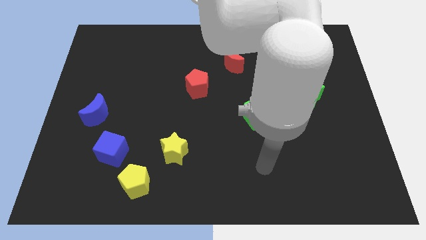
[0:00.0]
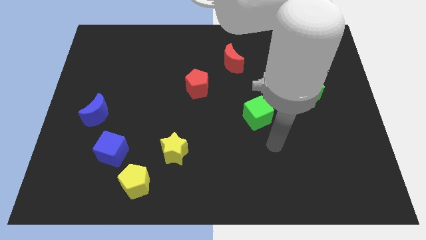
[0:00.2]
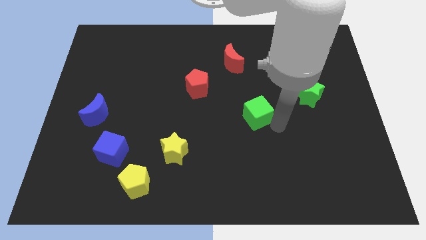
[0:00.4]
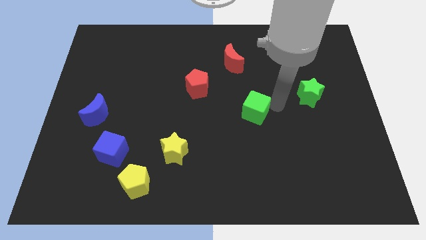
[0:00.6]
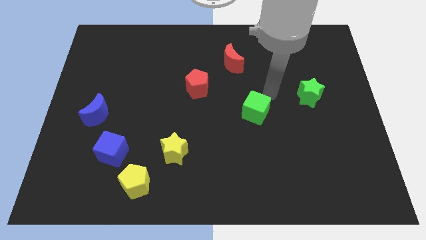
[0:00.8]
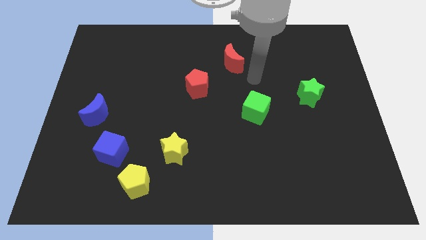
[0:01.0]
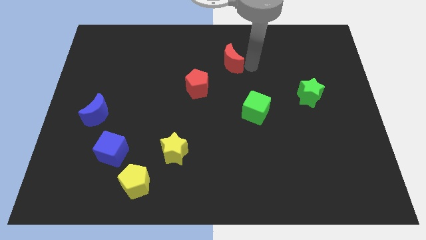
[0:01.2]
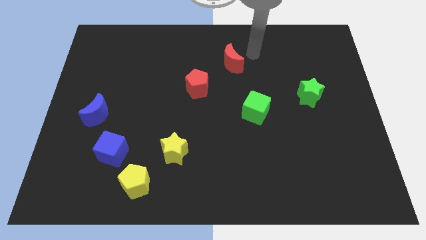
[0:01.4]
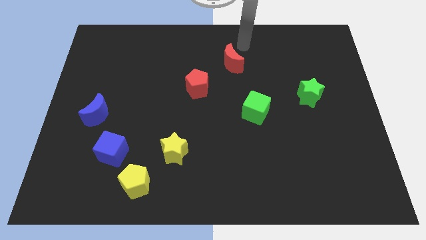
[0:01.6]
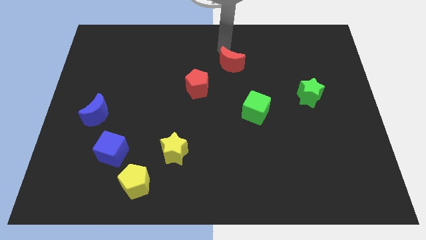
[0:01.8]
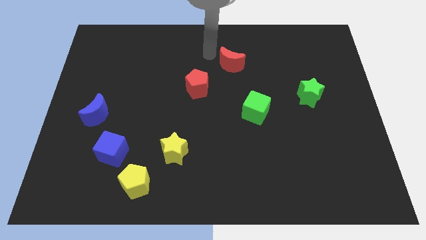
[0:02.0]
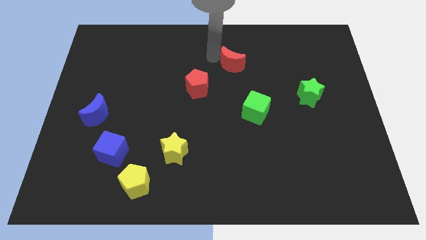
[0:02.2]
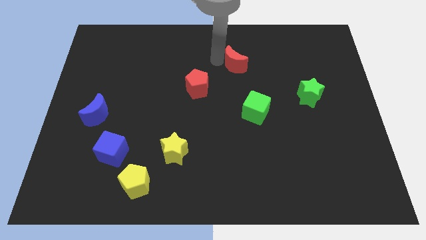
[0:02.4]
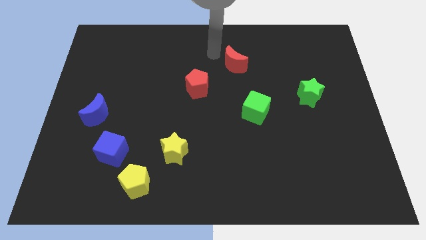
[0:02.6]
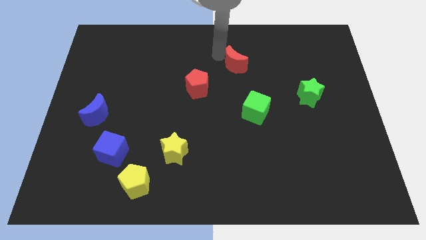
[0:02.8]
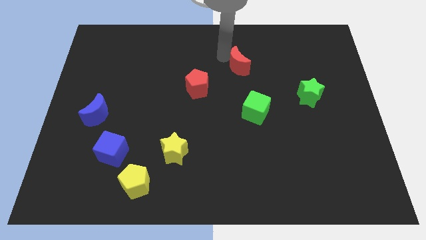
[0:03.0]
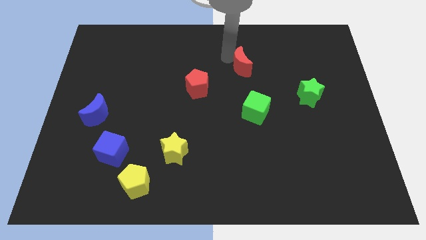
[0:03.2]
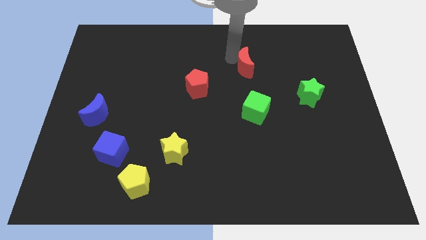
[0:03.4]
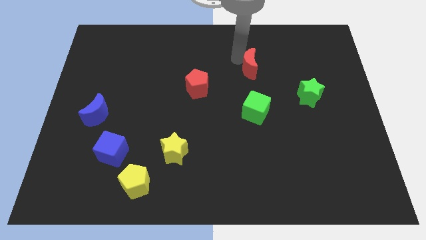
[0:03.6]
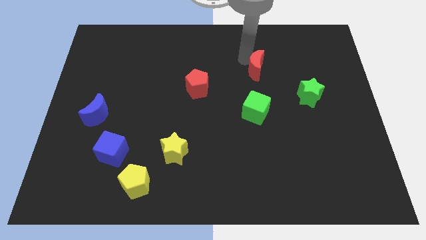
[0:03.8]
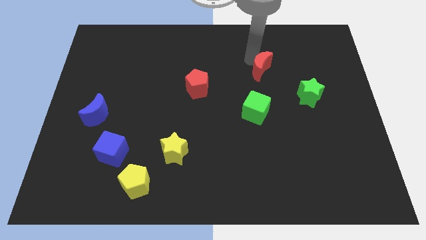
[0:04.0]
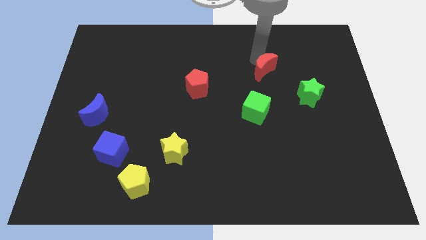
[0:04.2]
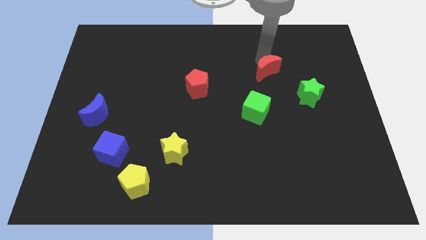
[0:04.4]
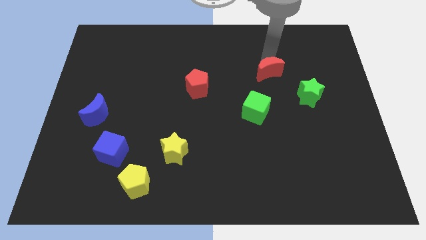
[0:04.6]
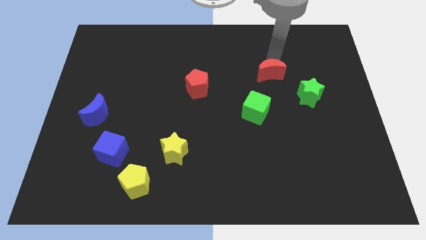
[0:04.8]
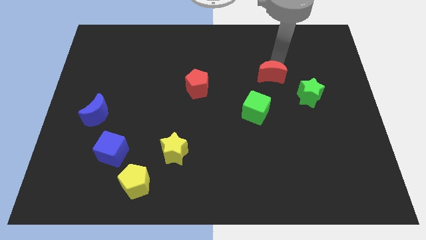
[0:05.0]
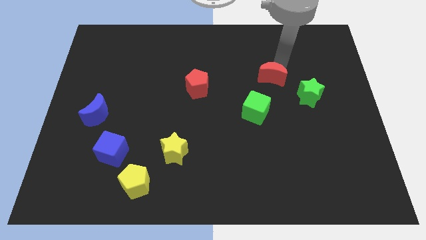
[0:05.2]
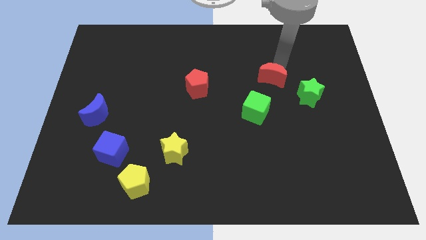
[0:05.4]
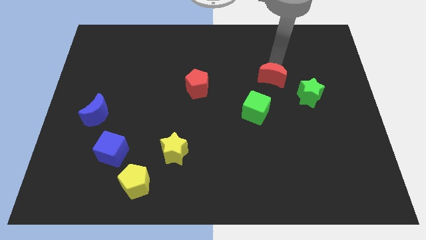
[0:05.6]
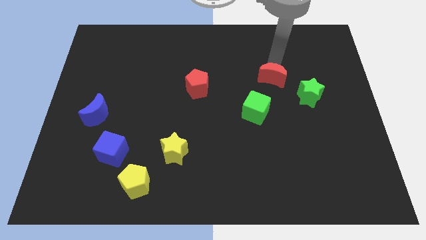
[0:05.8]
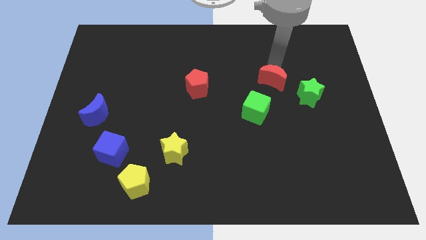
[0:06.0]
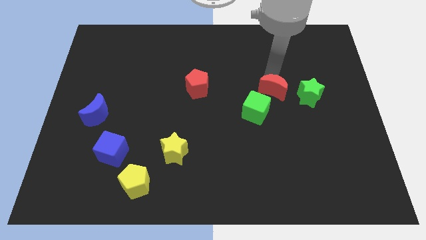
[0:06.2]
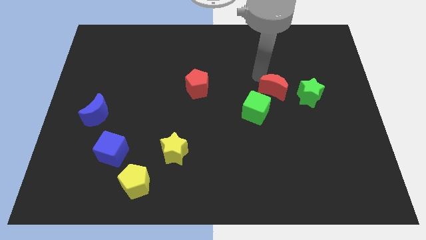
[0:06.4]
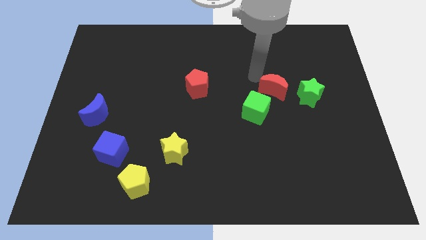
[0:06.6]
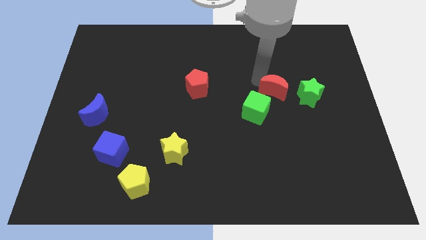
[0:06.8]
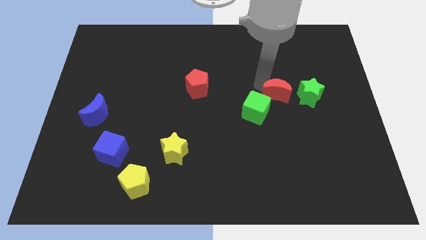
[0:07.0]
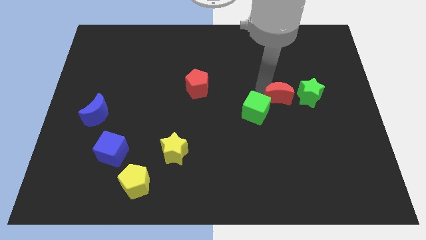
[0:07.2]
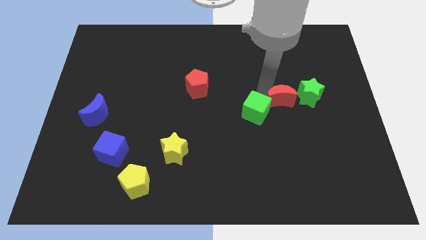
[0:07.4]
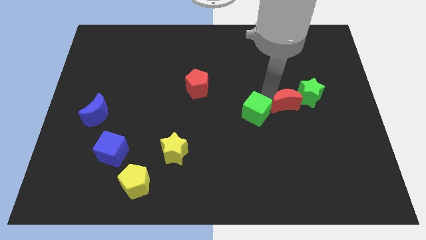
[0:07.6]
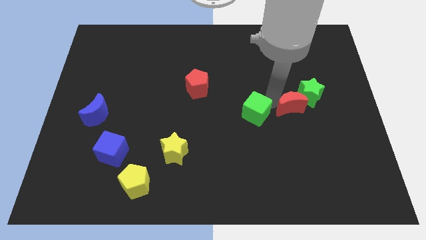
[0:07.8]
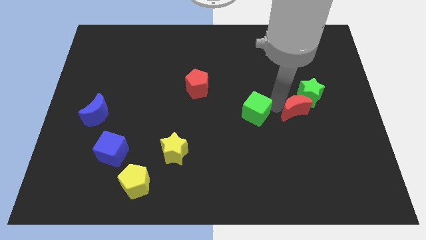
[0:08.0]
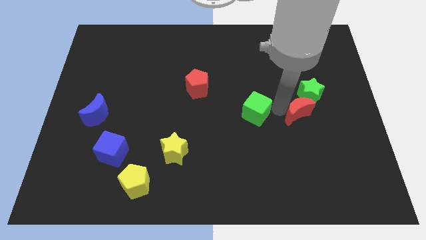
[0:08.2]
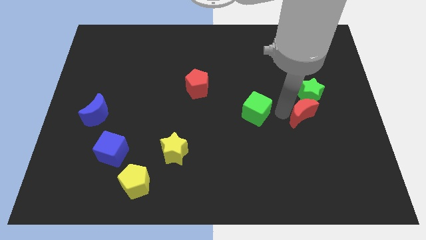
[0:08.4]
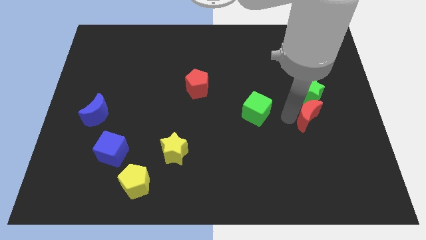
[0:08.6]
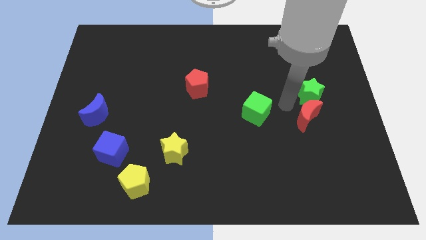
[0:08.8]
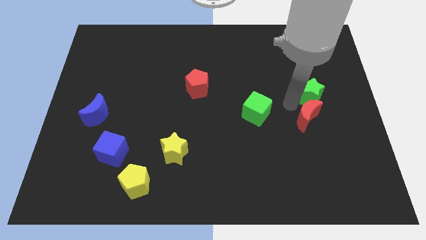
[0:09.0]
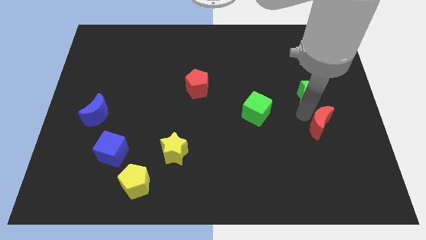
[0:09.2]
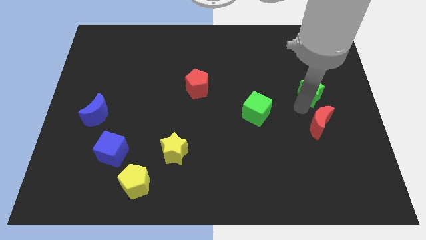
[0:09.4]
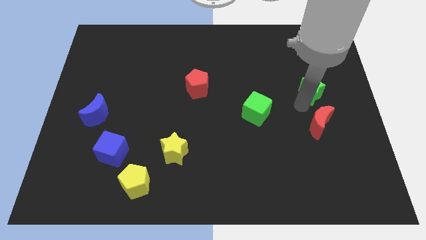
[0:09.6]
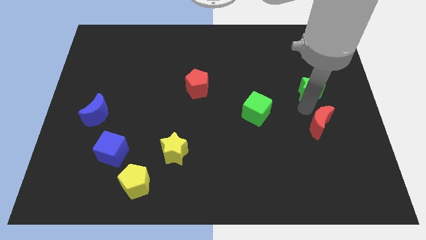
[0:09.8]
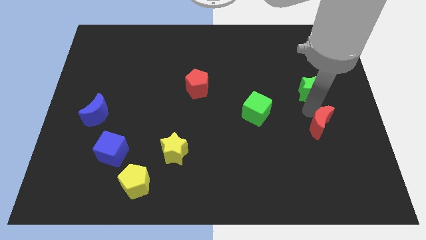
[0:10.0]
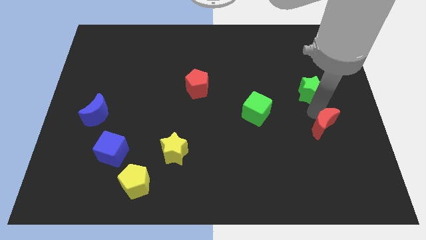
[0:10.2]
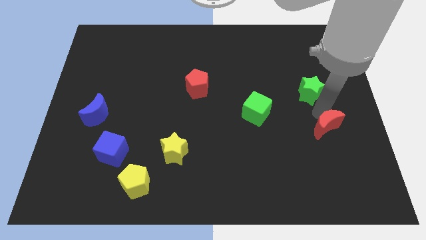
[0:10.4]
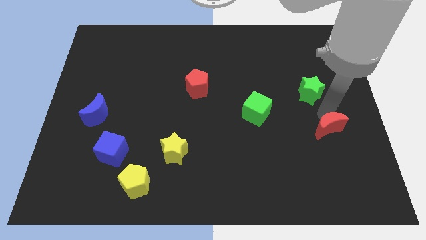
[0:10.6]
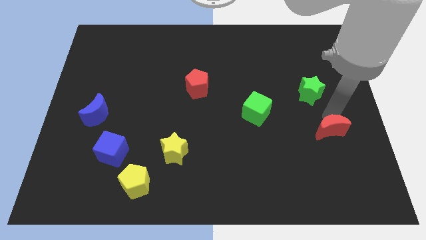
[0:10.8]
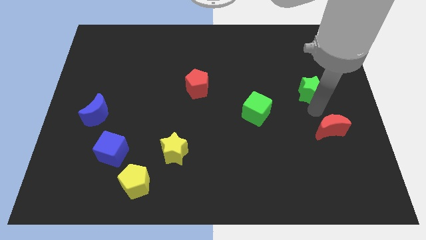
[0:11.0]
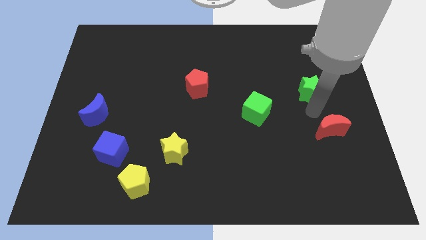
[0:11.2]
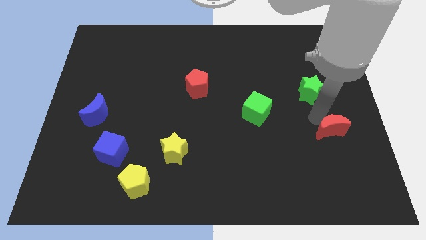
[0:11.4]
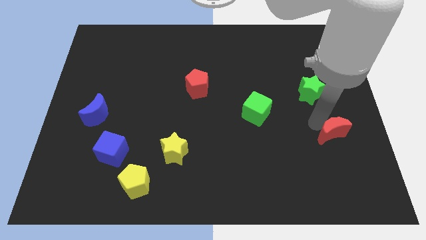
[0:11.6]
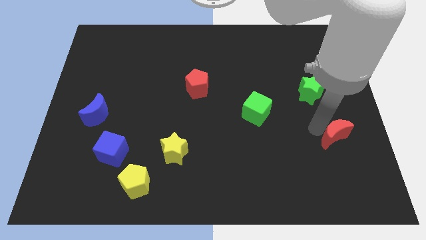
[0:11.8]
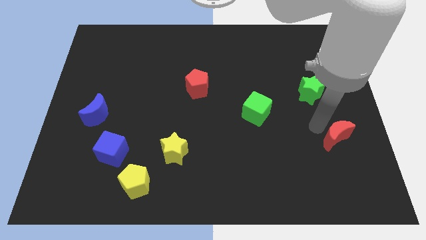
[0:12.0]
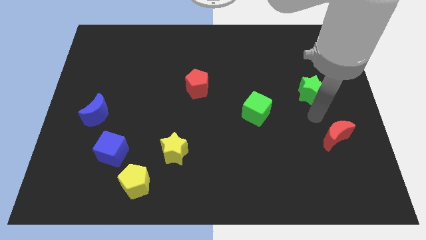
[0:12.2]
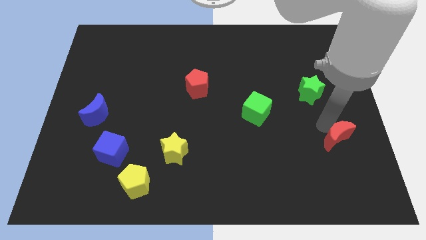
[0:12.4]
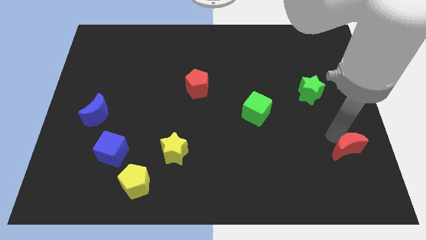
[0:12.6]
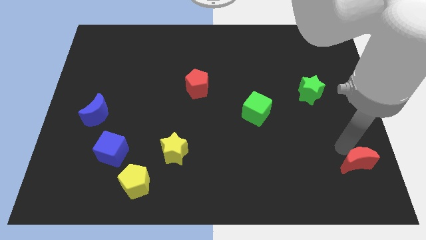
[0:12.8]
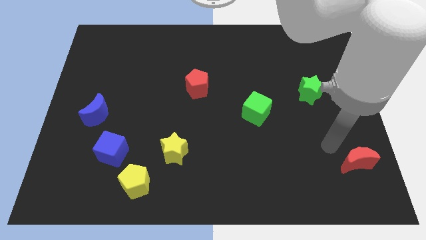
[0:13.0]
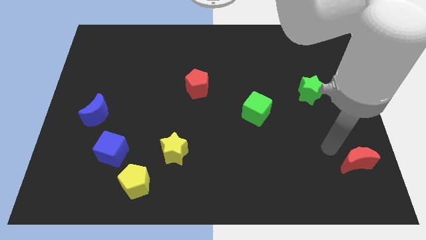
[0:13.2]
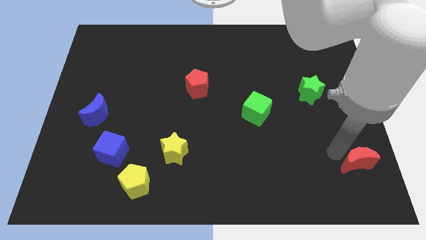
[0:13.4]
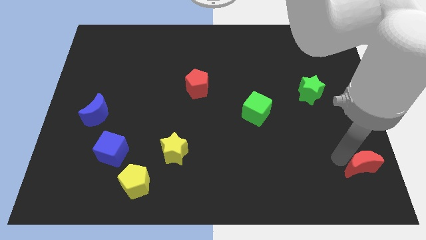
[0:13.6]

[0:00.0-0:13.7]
put the red moon to the bottom right of the board
